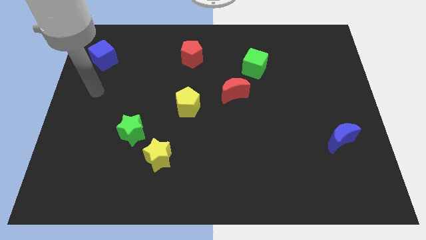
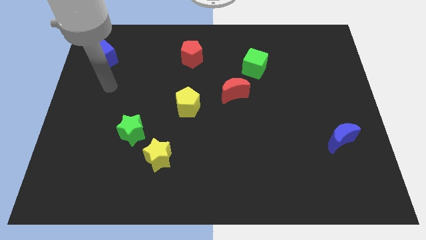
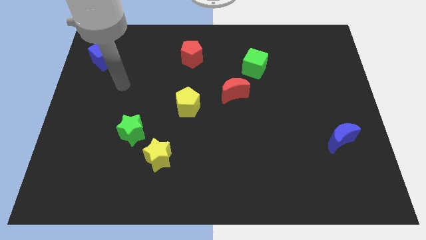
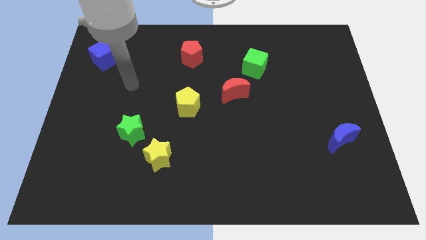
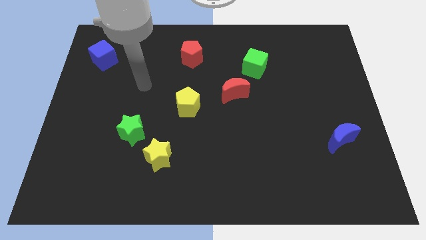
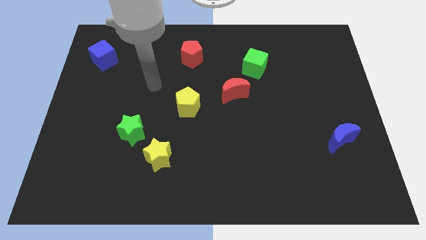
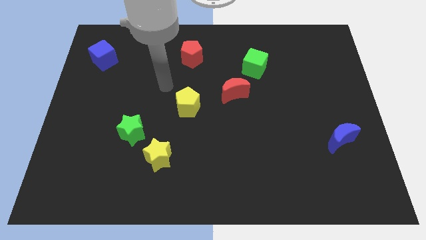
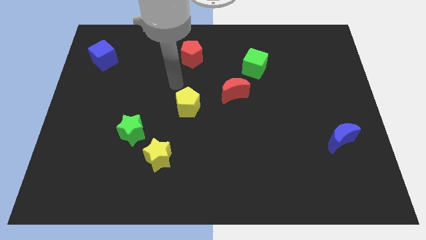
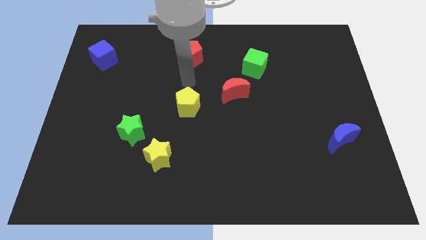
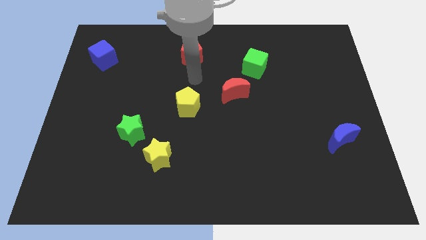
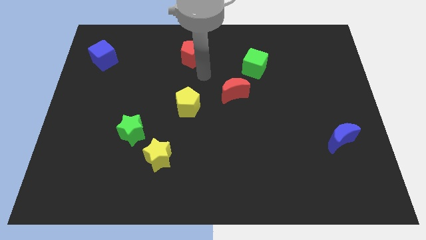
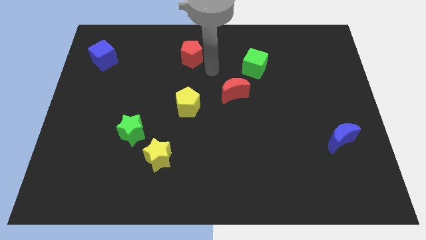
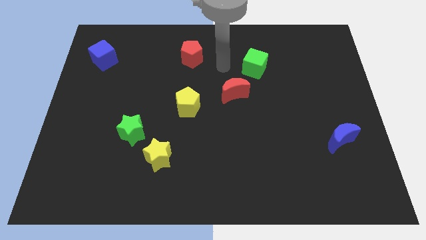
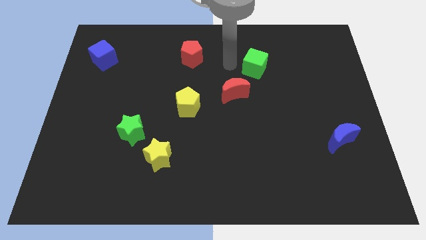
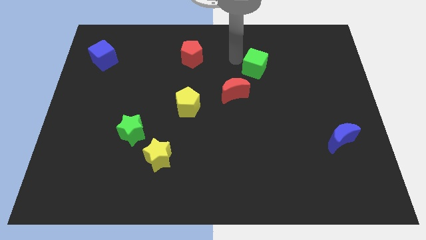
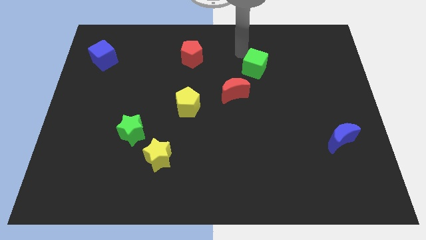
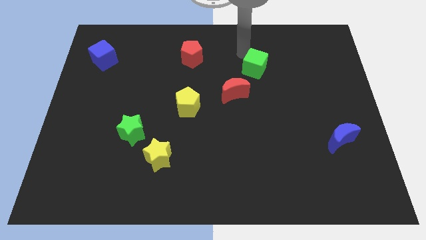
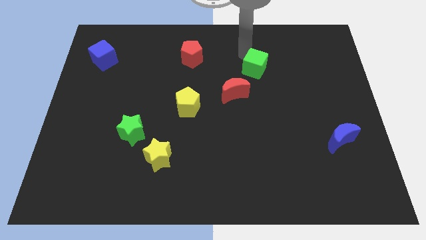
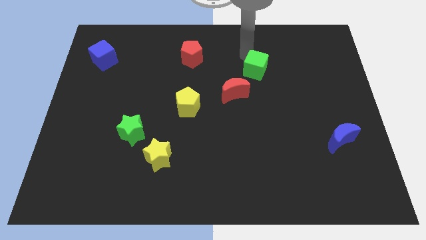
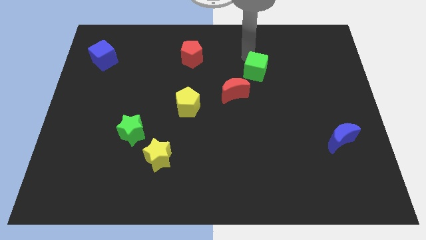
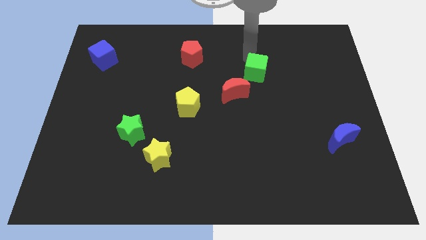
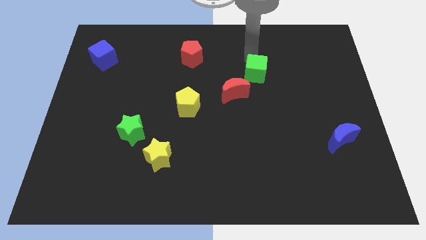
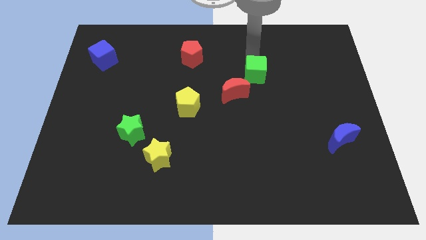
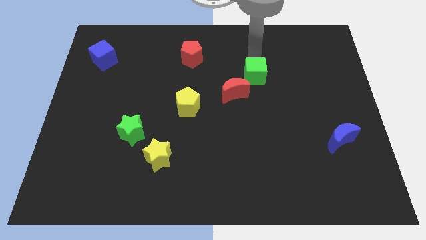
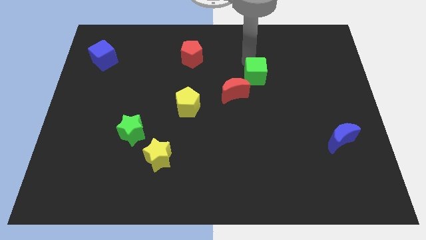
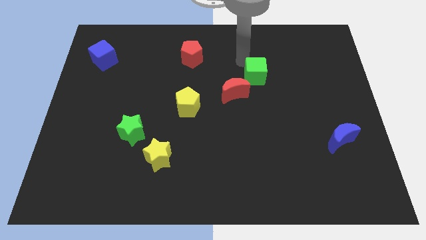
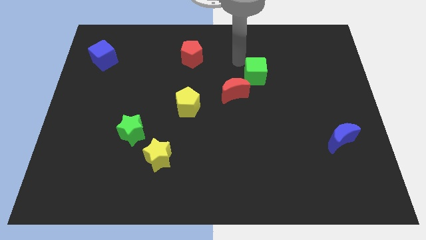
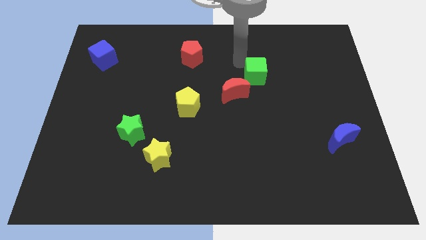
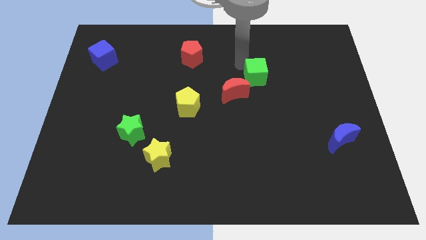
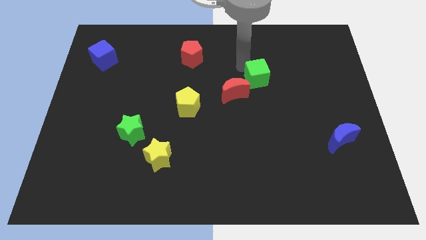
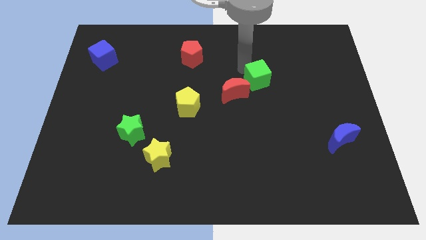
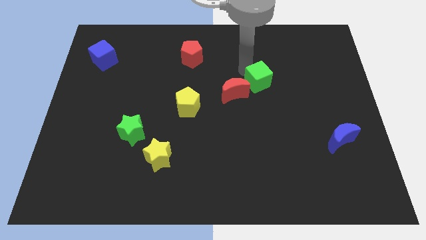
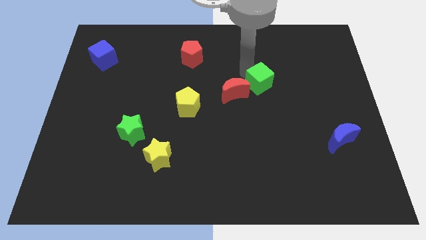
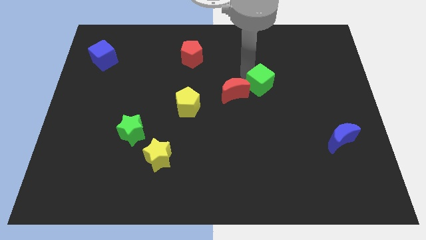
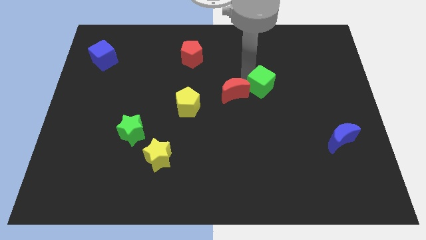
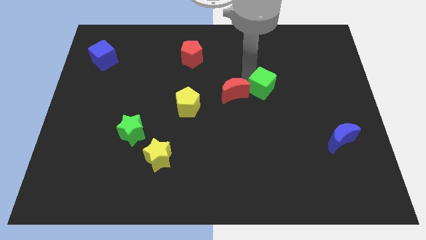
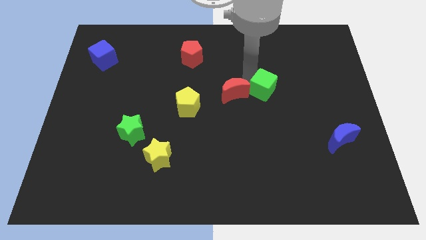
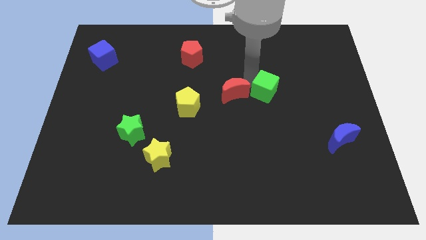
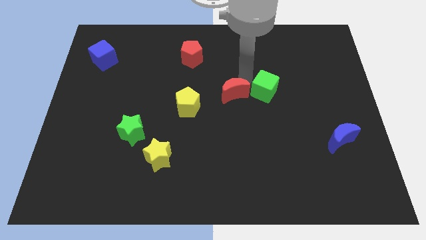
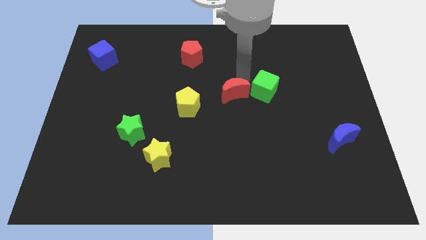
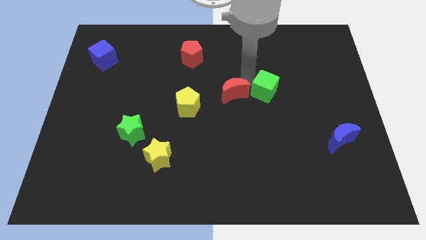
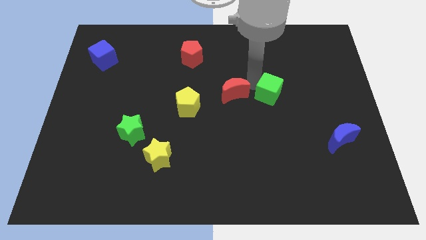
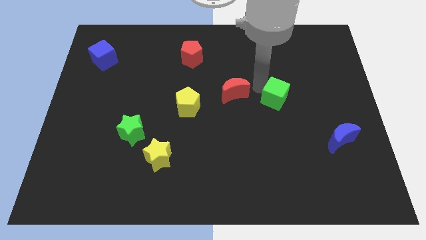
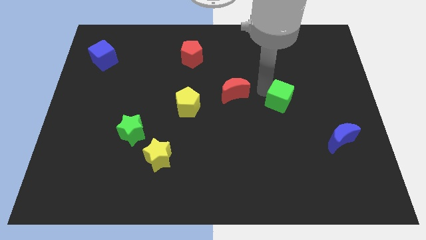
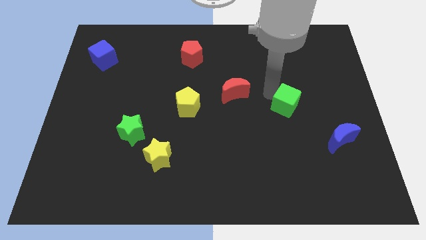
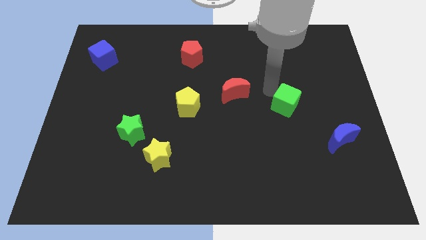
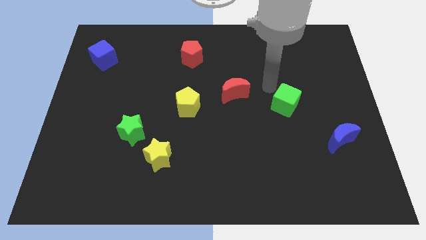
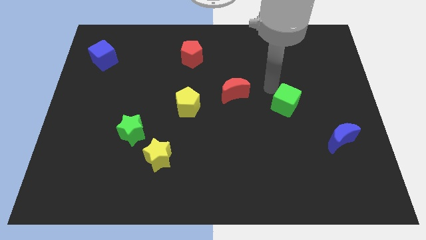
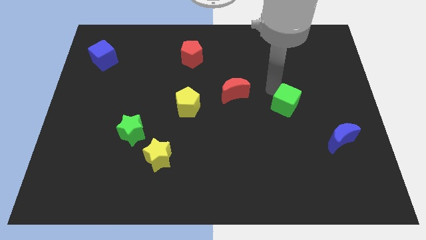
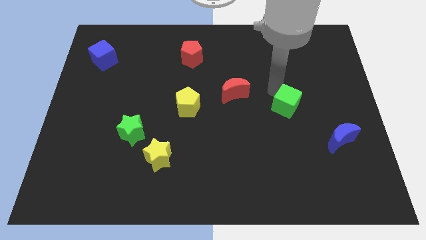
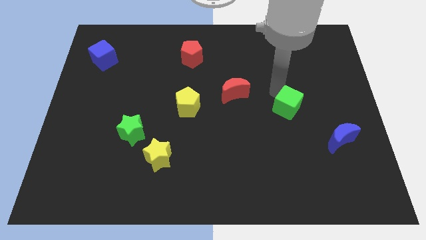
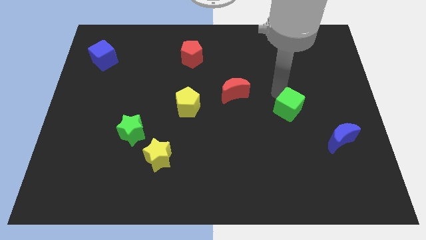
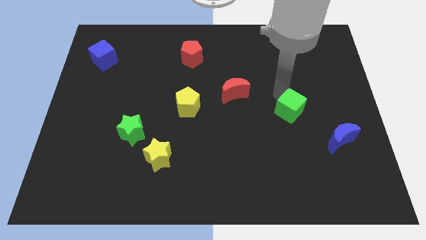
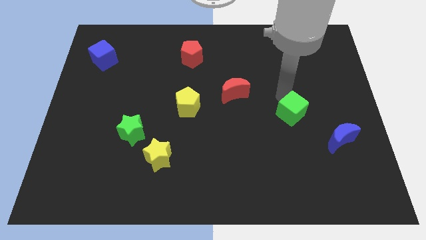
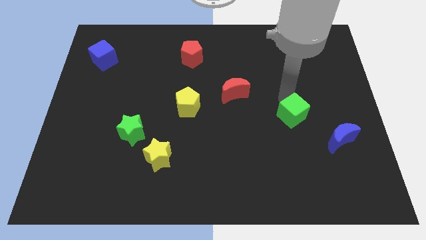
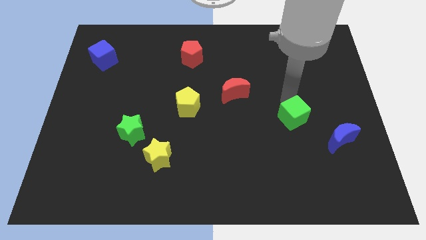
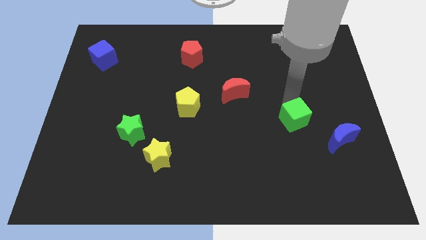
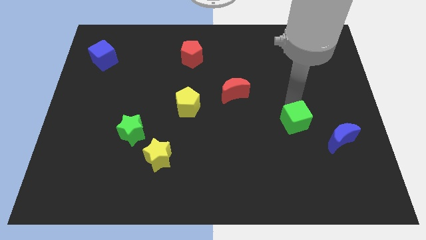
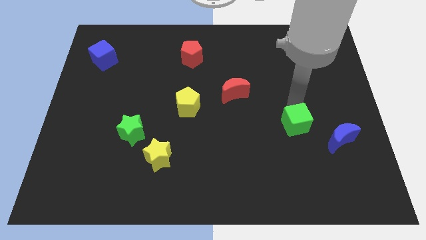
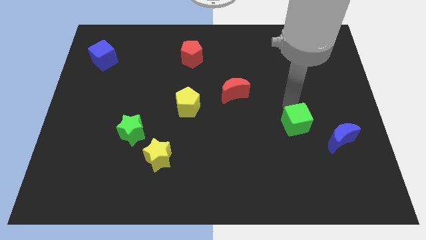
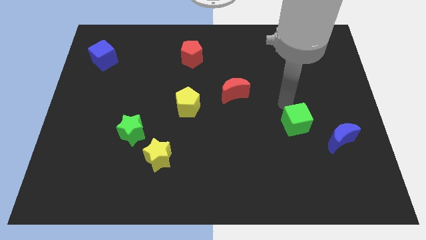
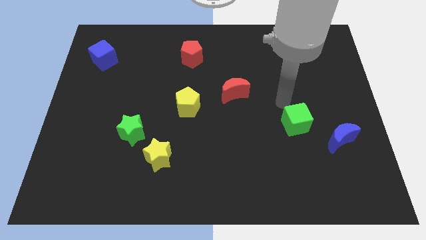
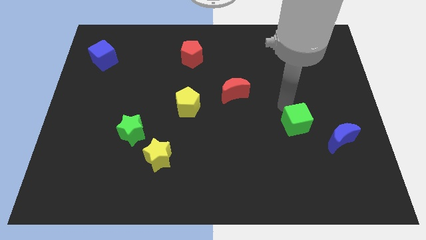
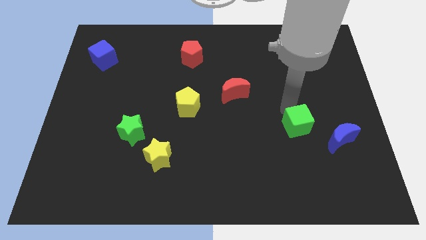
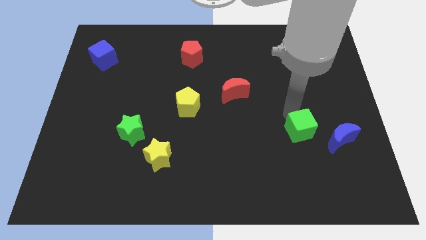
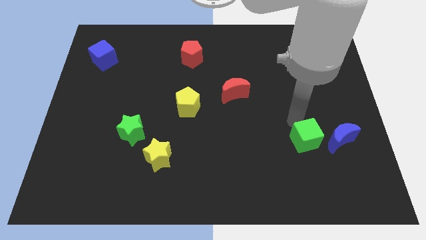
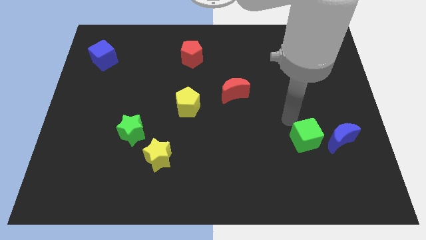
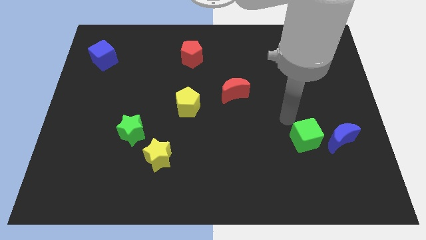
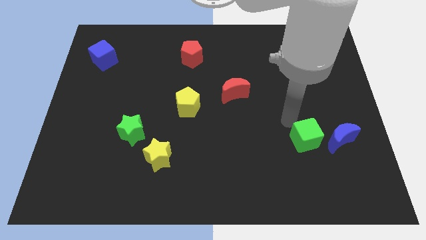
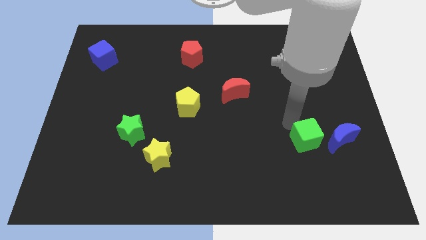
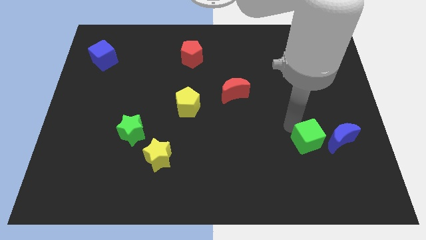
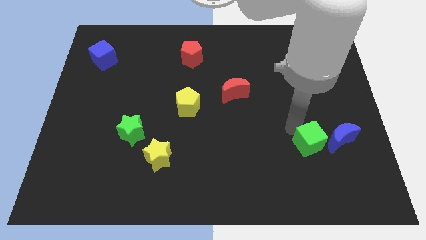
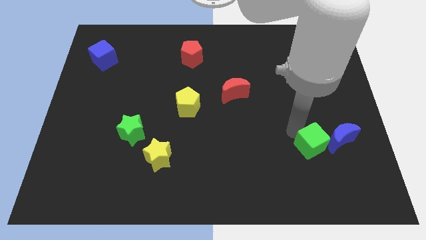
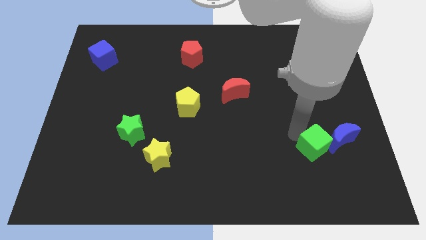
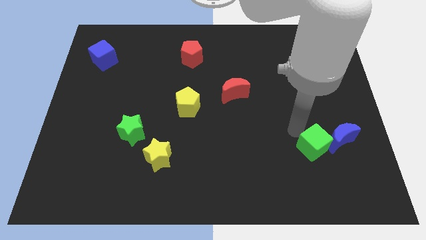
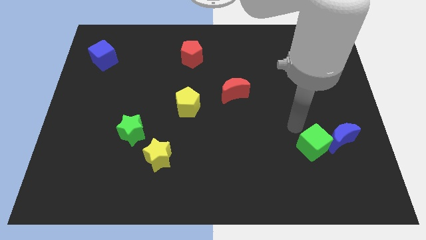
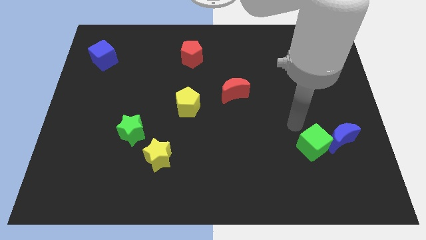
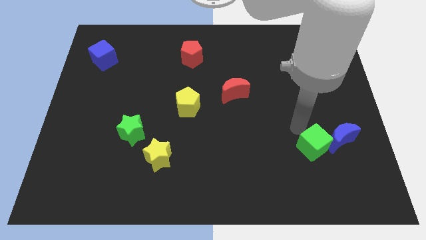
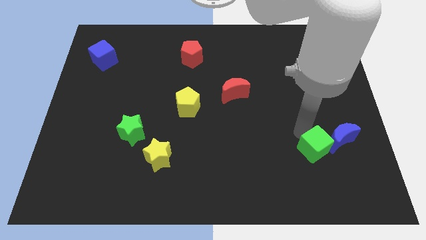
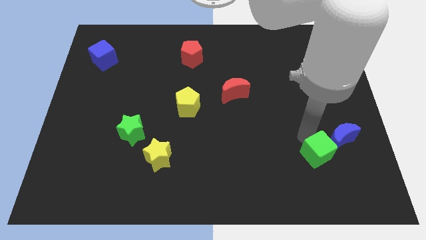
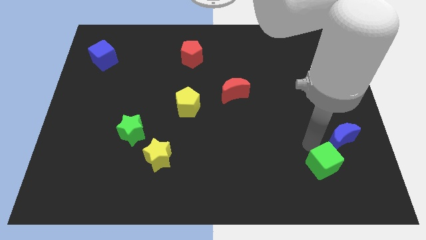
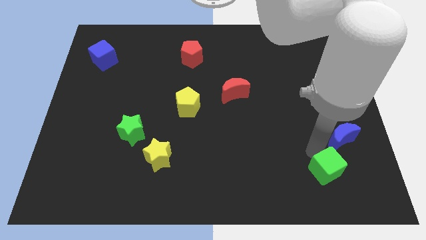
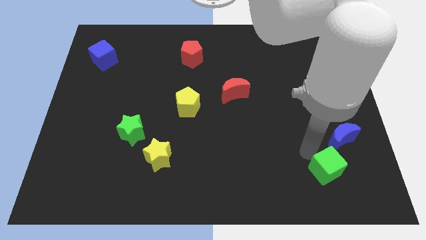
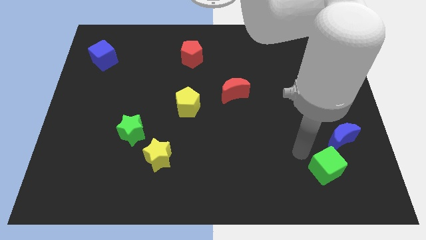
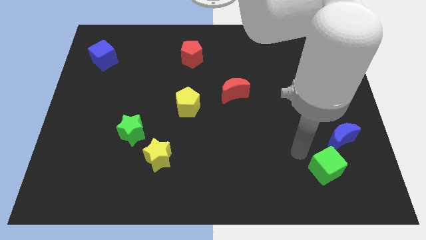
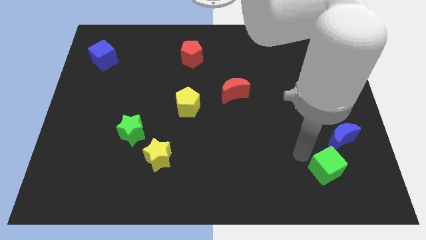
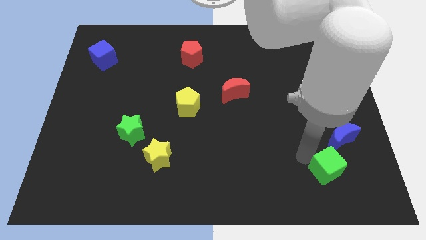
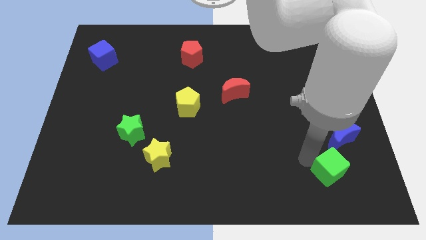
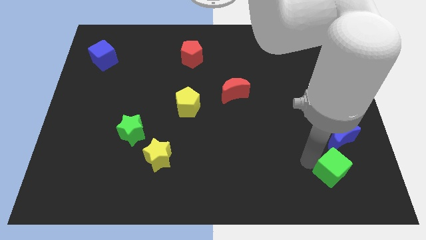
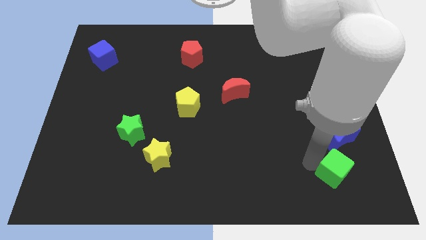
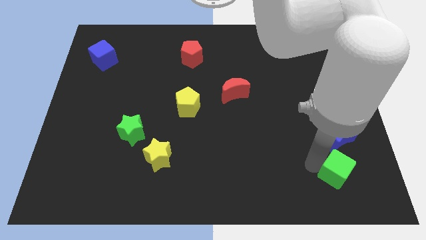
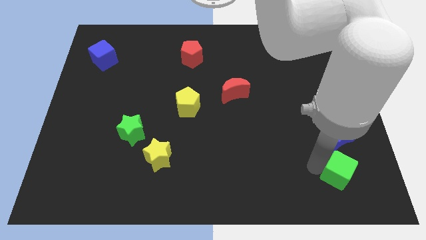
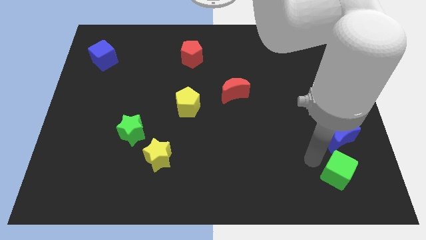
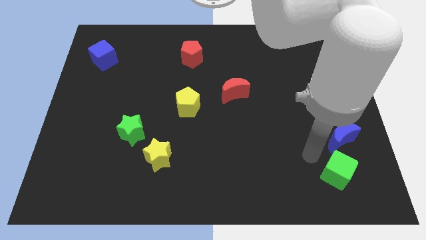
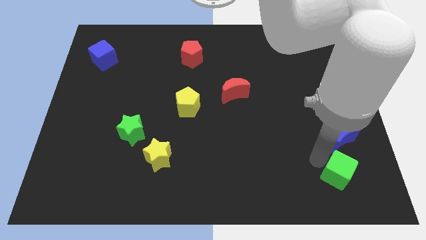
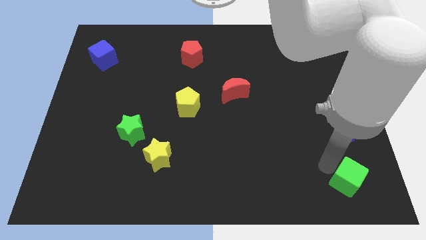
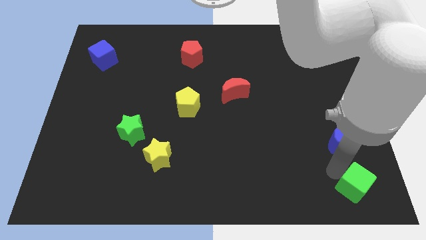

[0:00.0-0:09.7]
push the green cube to the bottom right corner
